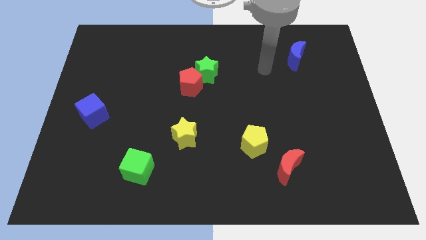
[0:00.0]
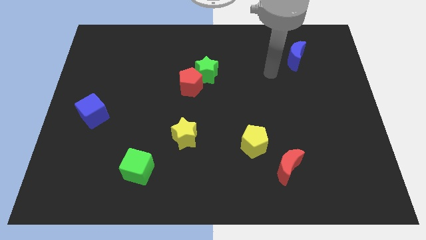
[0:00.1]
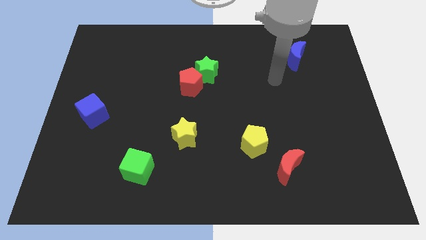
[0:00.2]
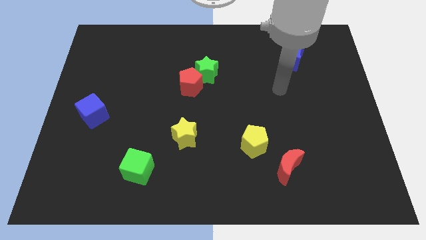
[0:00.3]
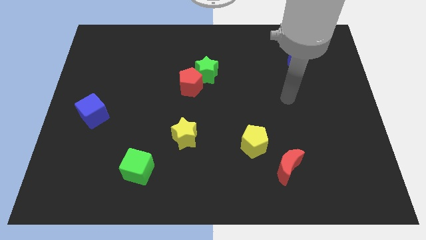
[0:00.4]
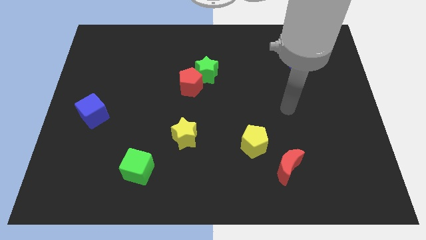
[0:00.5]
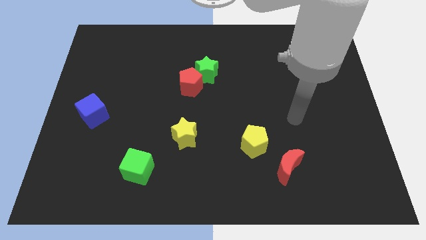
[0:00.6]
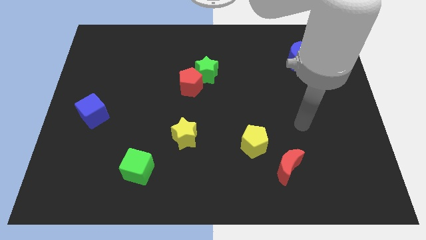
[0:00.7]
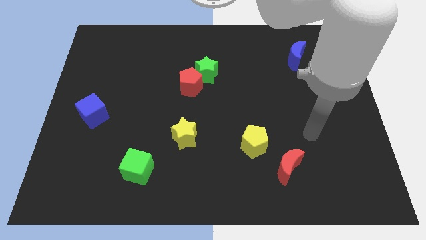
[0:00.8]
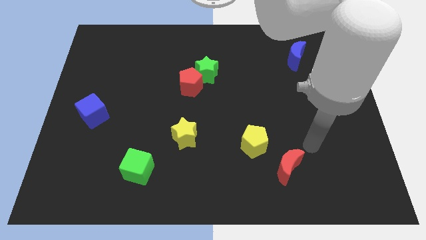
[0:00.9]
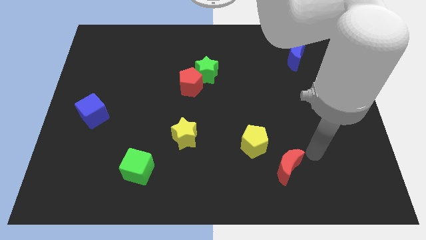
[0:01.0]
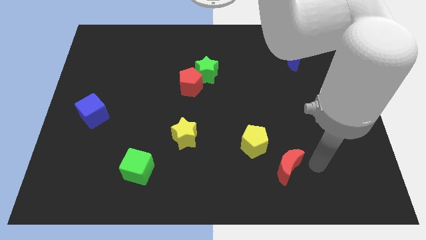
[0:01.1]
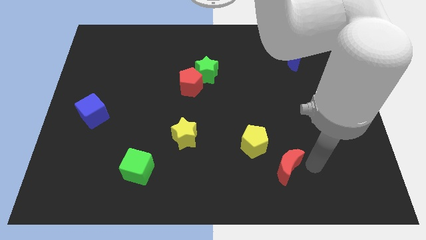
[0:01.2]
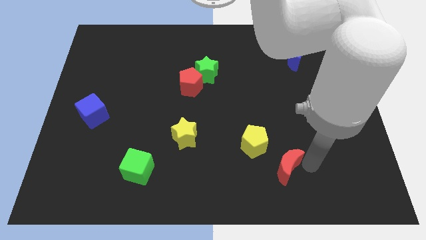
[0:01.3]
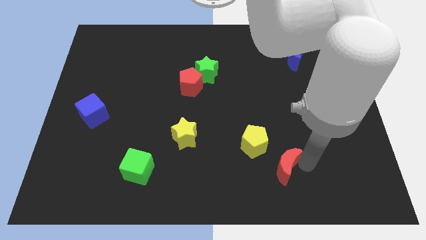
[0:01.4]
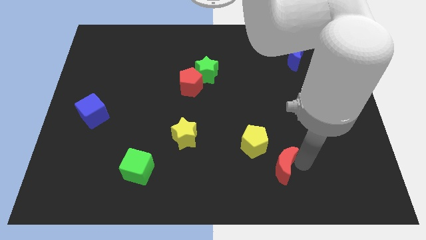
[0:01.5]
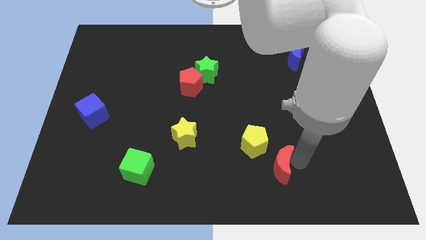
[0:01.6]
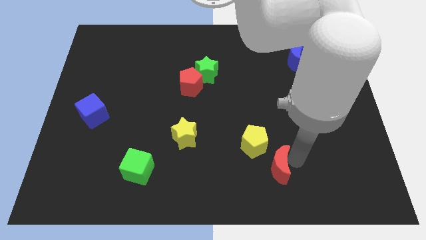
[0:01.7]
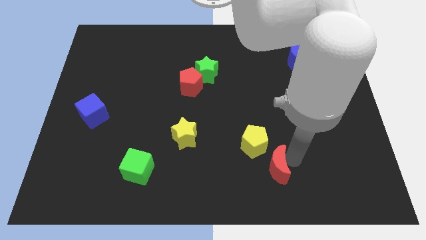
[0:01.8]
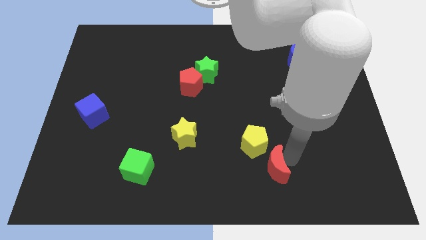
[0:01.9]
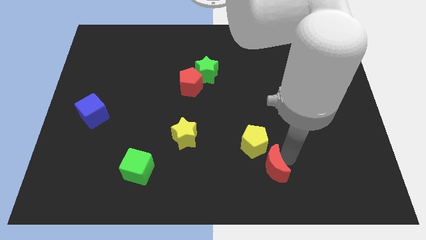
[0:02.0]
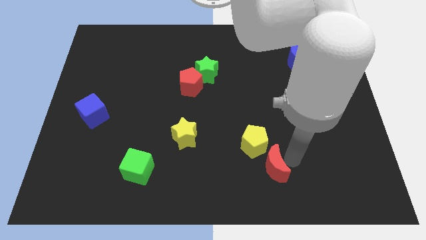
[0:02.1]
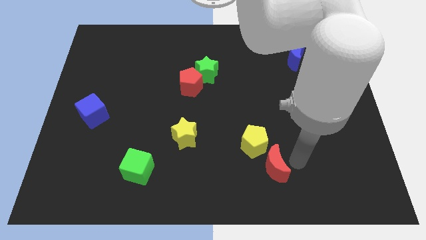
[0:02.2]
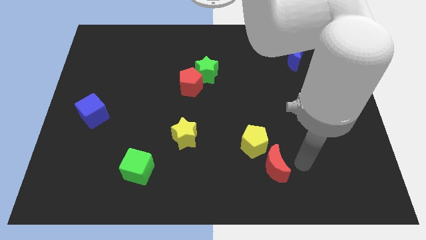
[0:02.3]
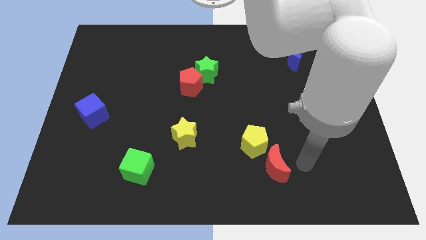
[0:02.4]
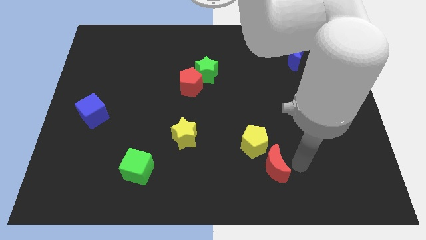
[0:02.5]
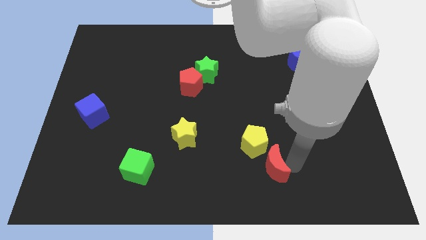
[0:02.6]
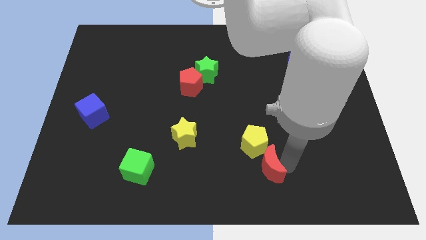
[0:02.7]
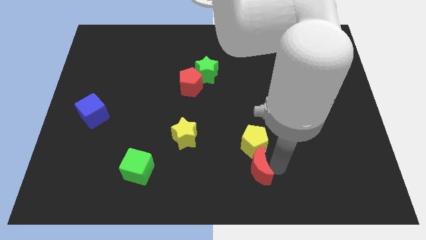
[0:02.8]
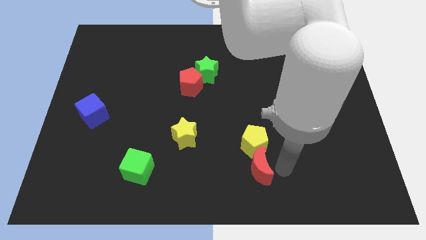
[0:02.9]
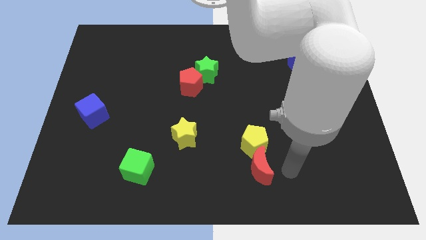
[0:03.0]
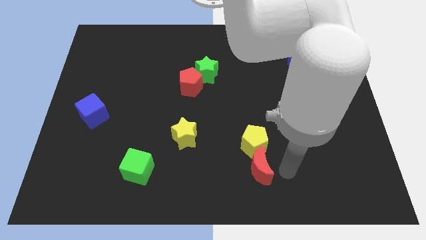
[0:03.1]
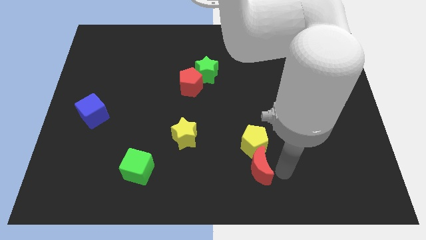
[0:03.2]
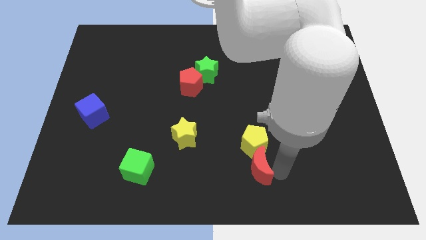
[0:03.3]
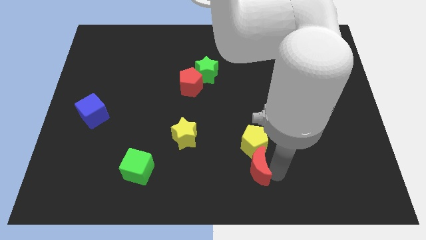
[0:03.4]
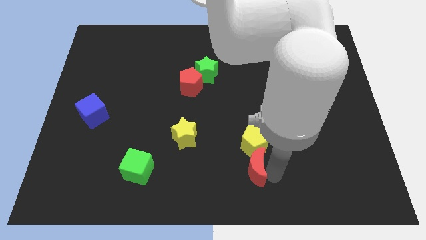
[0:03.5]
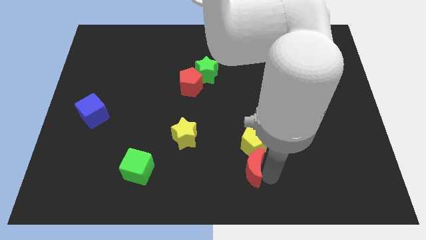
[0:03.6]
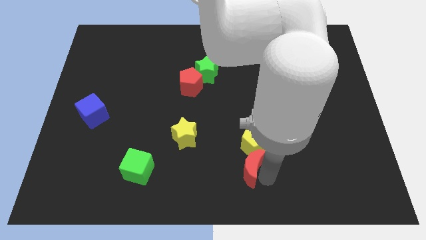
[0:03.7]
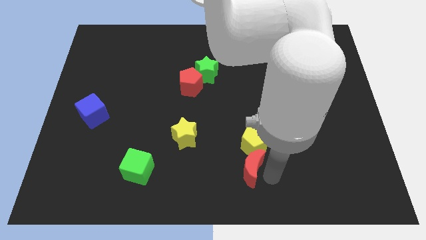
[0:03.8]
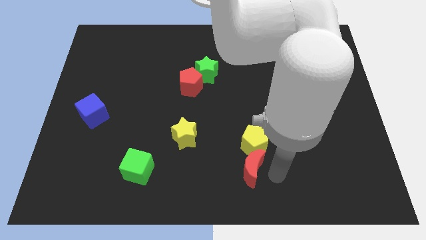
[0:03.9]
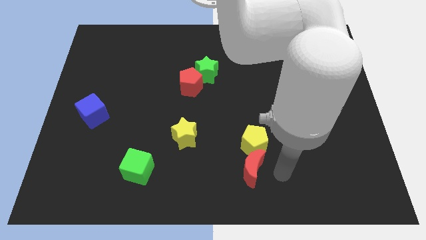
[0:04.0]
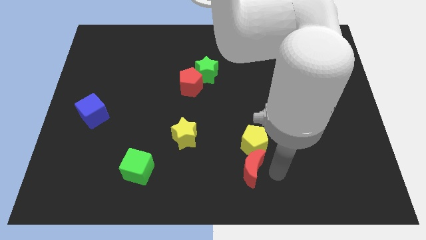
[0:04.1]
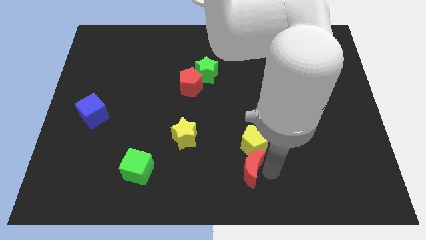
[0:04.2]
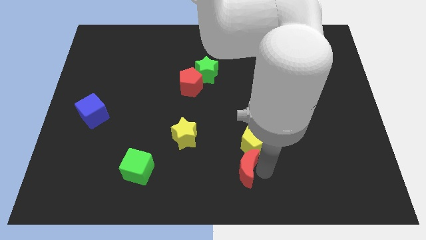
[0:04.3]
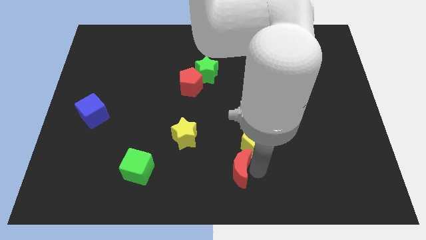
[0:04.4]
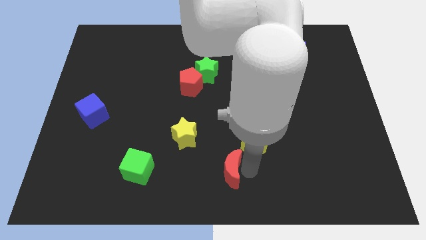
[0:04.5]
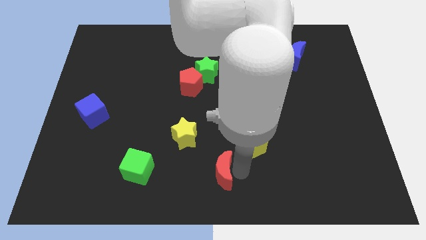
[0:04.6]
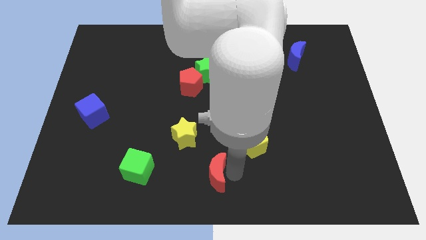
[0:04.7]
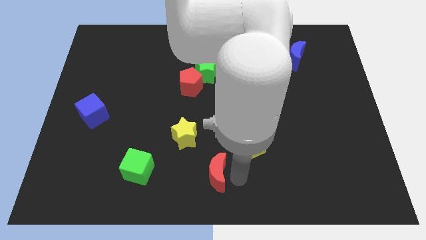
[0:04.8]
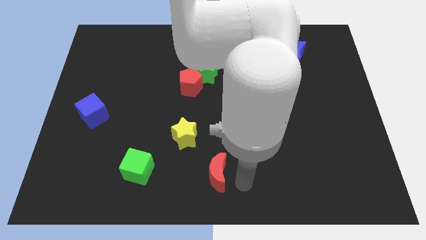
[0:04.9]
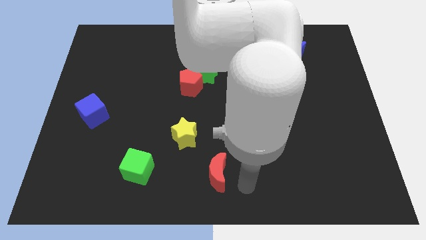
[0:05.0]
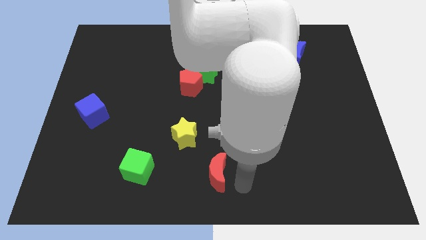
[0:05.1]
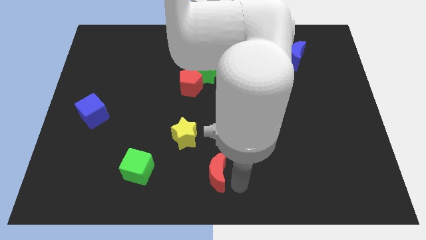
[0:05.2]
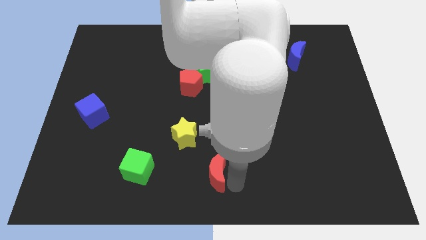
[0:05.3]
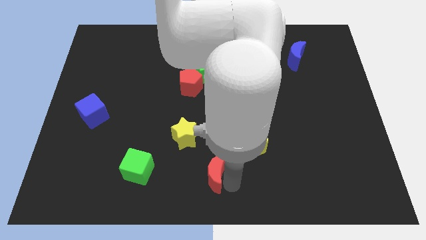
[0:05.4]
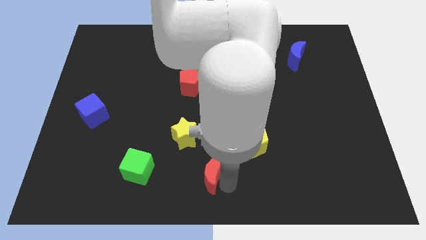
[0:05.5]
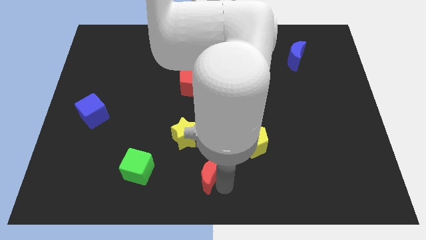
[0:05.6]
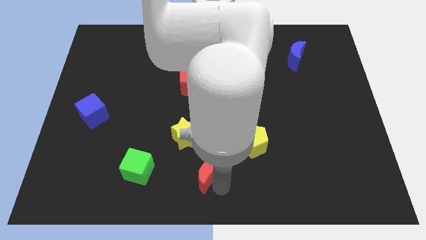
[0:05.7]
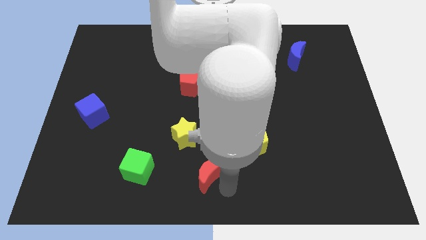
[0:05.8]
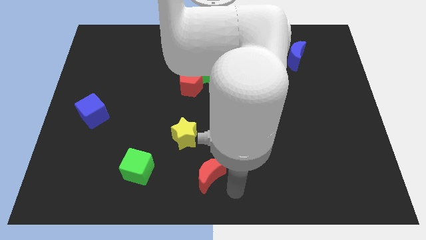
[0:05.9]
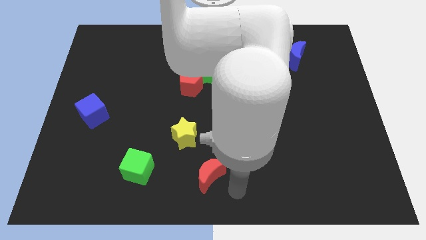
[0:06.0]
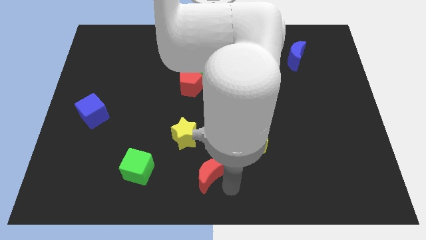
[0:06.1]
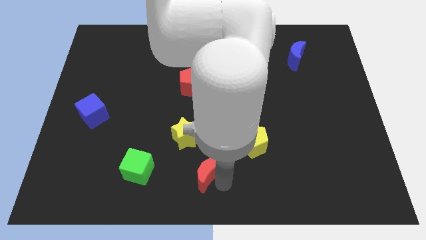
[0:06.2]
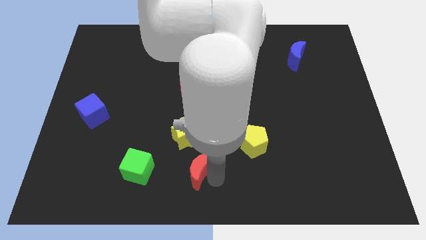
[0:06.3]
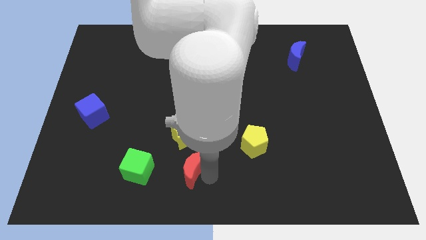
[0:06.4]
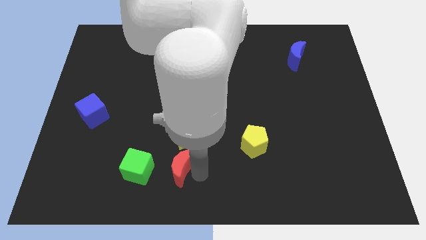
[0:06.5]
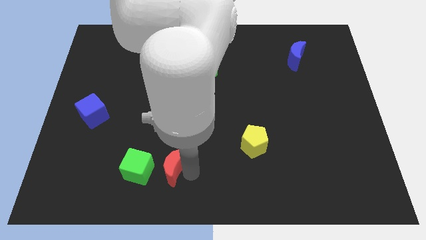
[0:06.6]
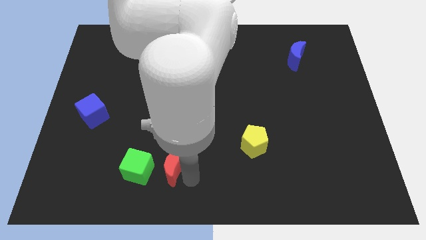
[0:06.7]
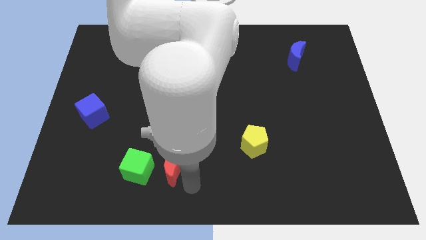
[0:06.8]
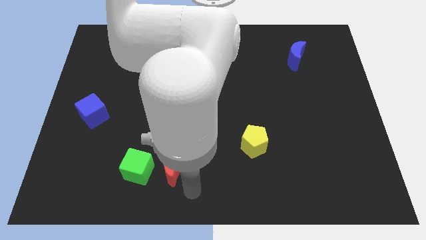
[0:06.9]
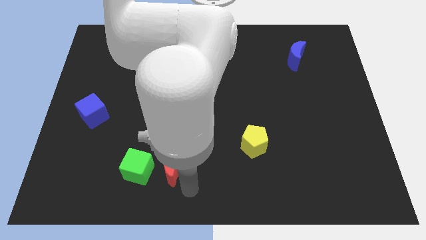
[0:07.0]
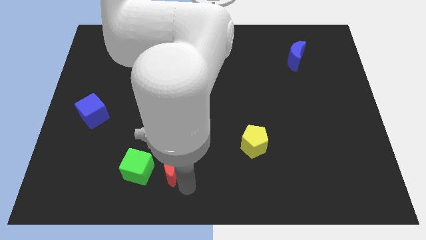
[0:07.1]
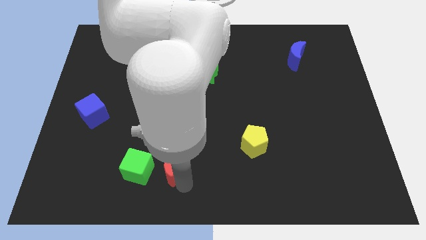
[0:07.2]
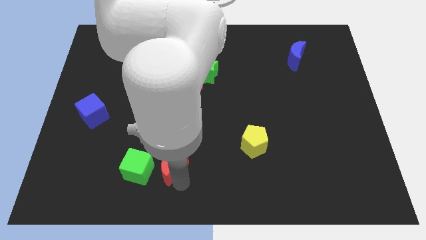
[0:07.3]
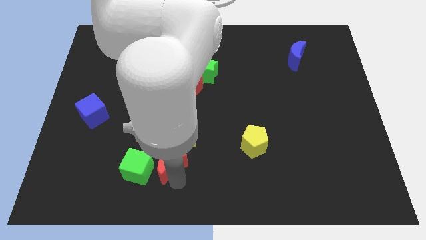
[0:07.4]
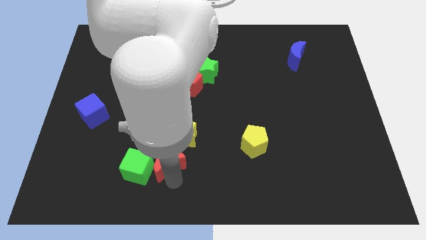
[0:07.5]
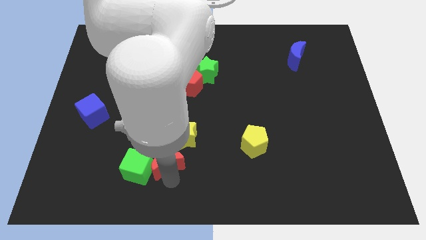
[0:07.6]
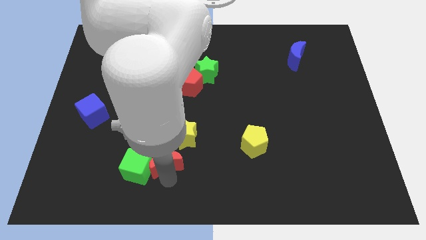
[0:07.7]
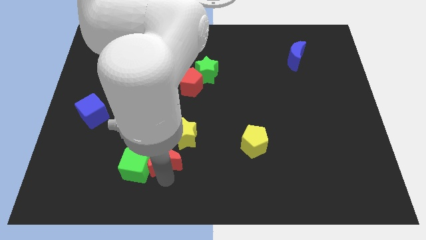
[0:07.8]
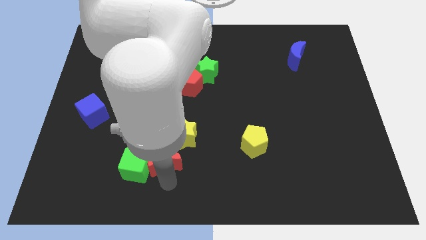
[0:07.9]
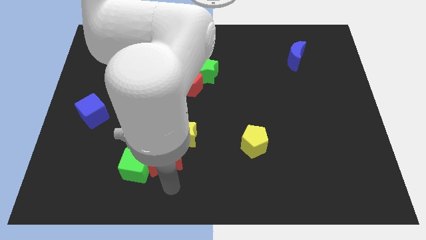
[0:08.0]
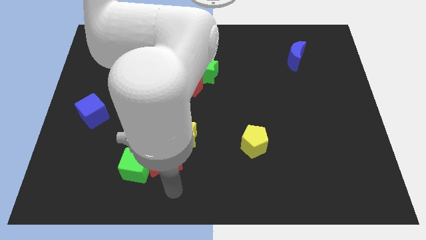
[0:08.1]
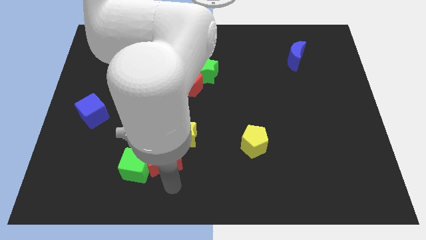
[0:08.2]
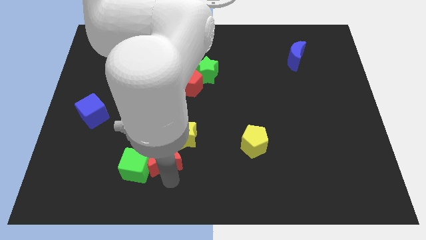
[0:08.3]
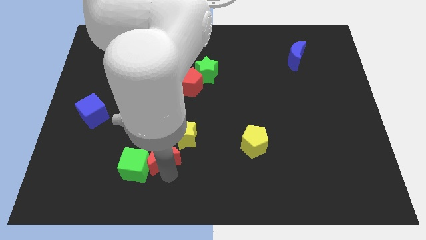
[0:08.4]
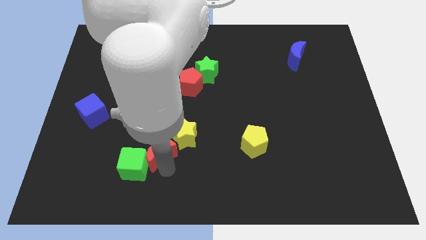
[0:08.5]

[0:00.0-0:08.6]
move the red moon to the left of the yellow star
